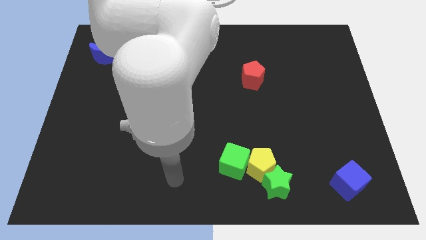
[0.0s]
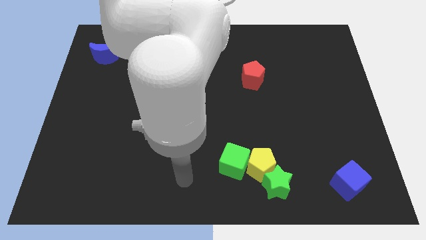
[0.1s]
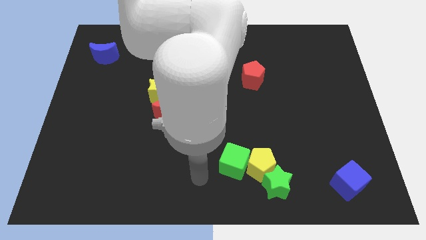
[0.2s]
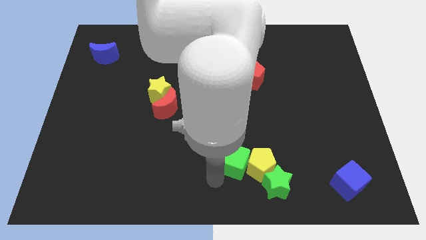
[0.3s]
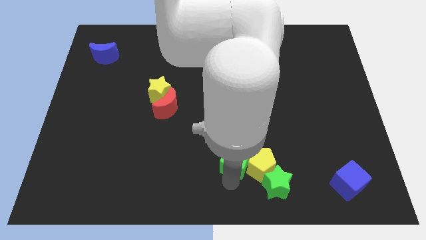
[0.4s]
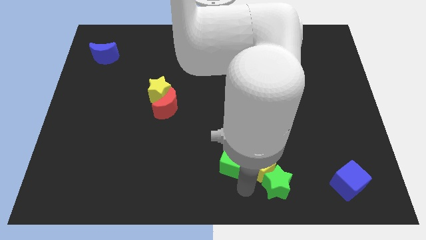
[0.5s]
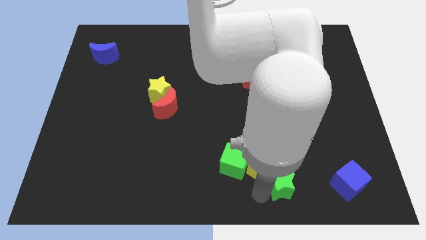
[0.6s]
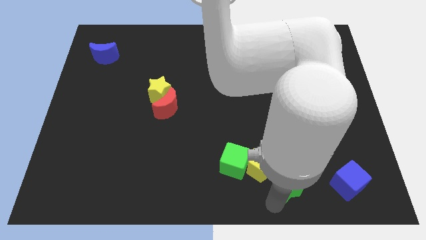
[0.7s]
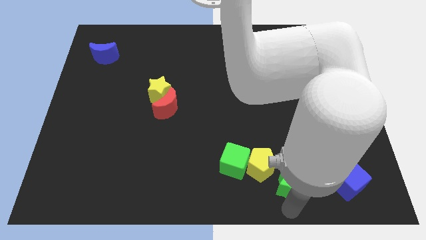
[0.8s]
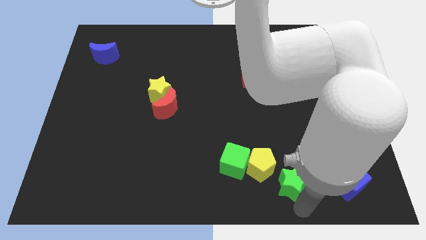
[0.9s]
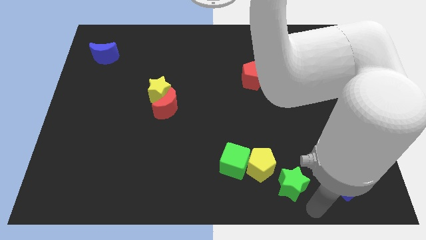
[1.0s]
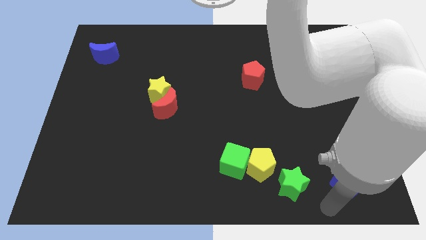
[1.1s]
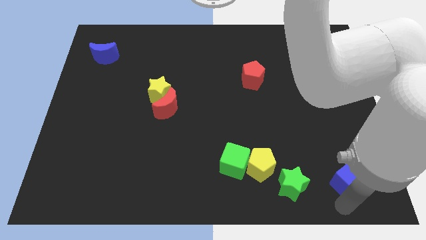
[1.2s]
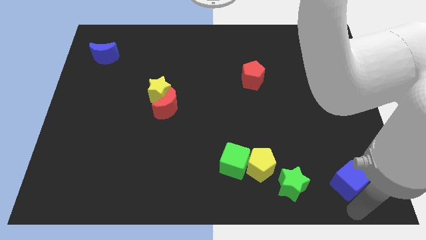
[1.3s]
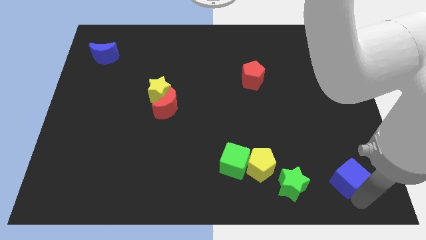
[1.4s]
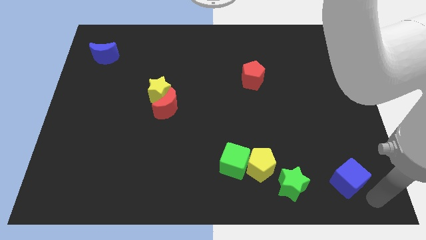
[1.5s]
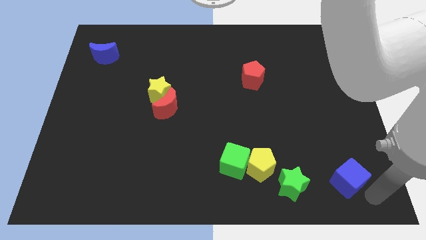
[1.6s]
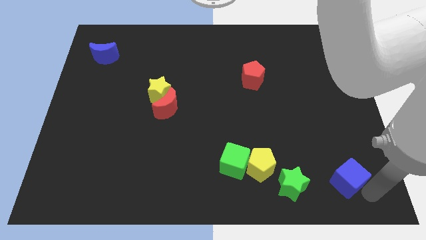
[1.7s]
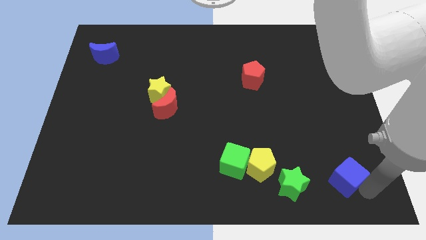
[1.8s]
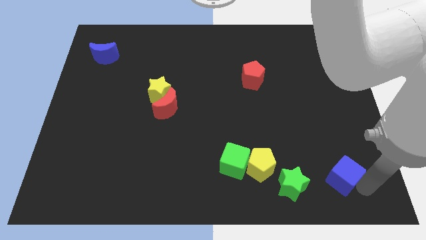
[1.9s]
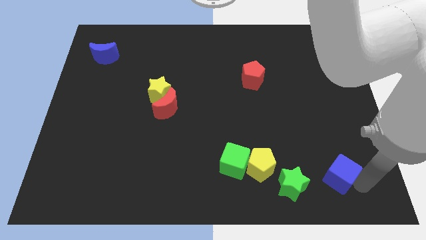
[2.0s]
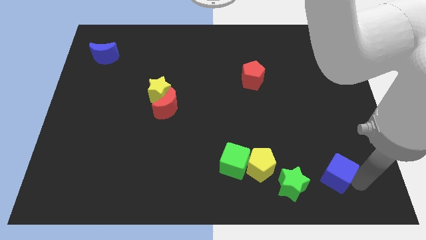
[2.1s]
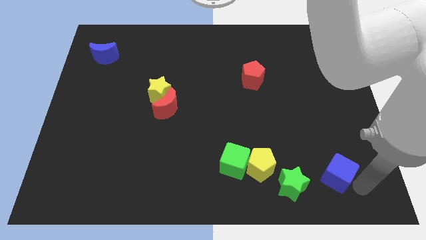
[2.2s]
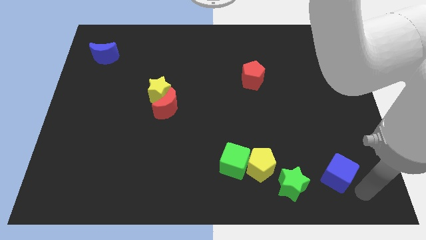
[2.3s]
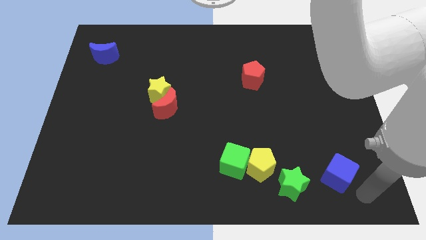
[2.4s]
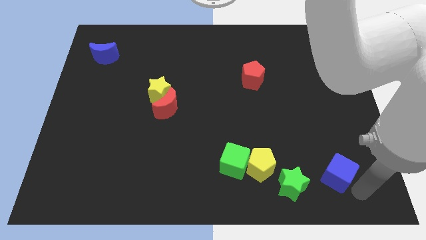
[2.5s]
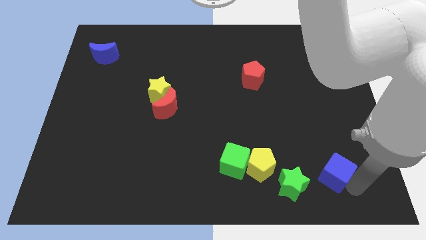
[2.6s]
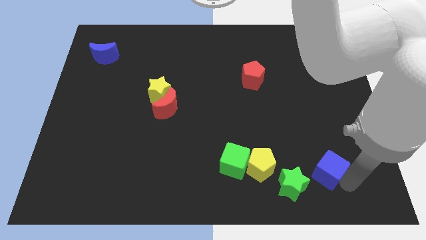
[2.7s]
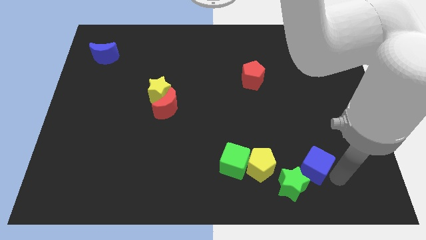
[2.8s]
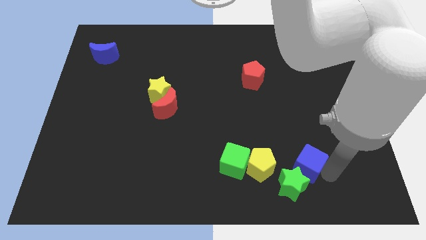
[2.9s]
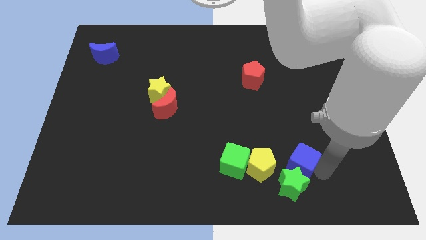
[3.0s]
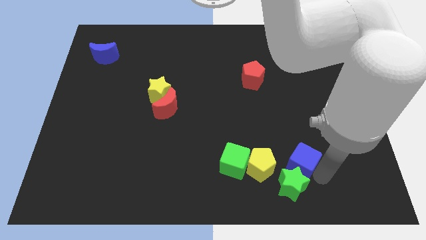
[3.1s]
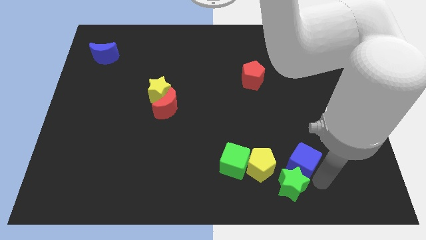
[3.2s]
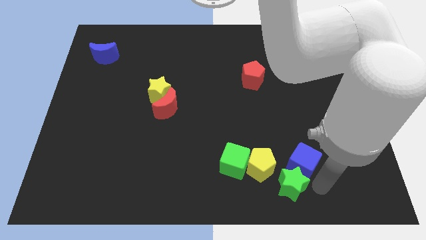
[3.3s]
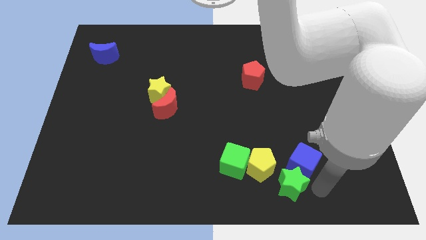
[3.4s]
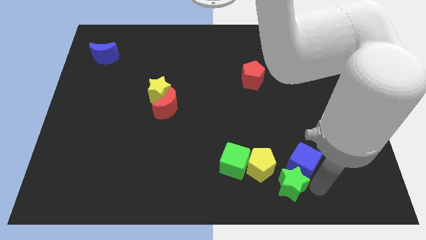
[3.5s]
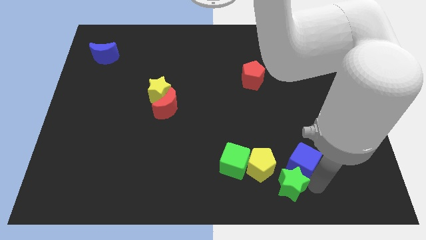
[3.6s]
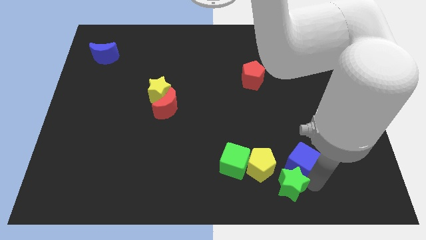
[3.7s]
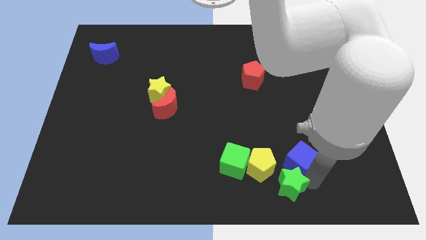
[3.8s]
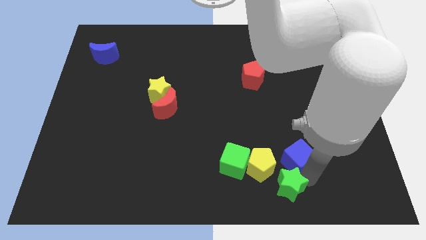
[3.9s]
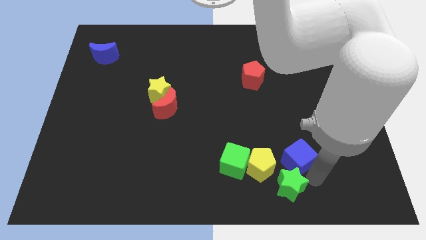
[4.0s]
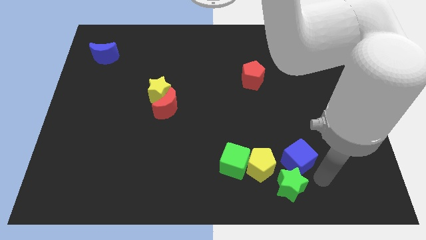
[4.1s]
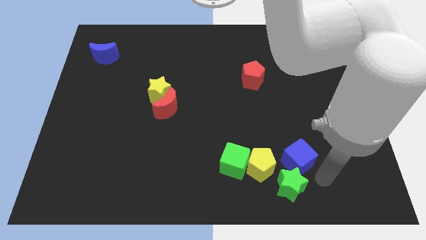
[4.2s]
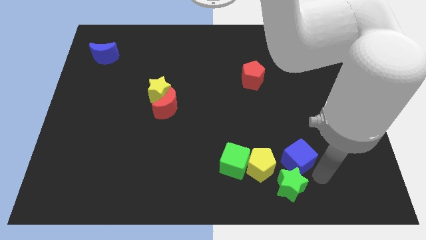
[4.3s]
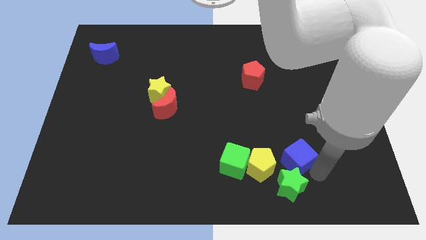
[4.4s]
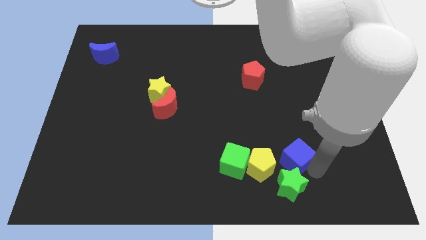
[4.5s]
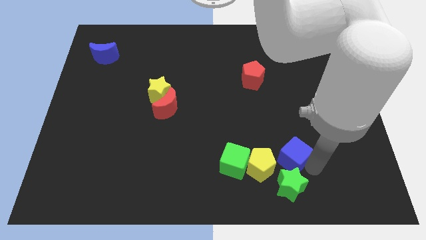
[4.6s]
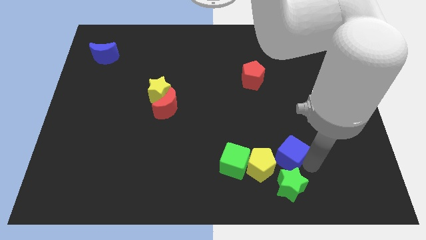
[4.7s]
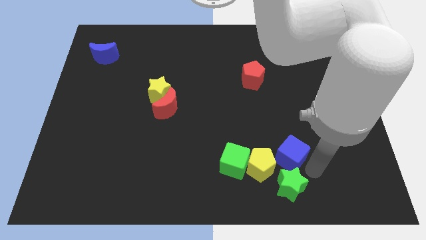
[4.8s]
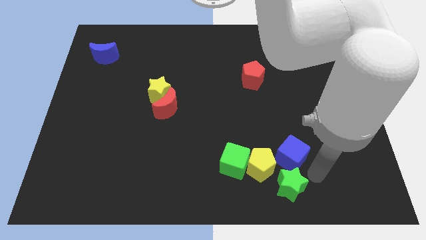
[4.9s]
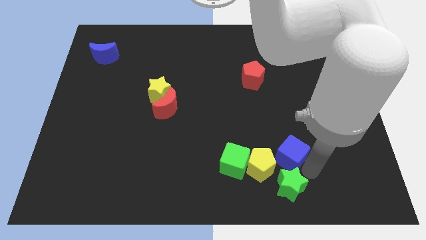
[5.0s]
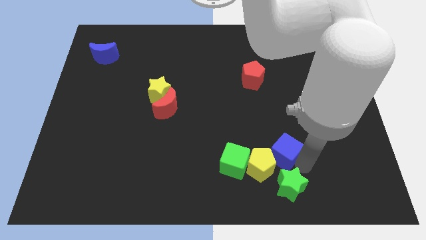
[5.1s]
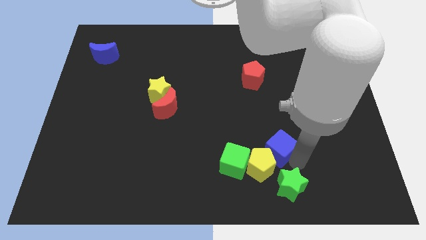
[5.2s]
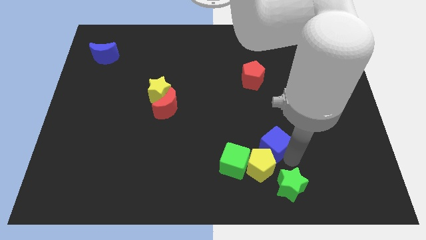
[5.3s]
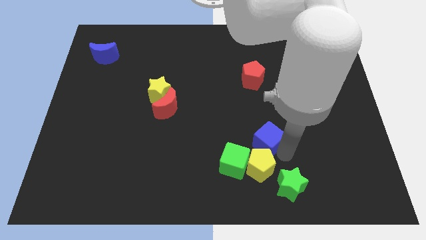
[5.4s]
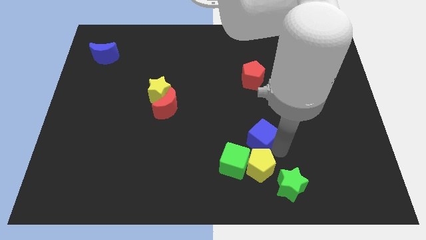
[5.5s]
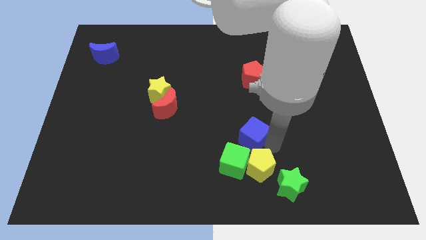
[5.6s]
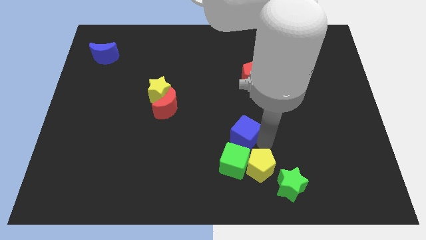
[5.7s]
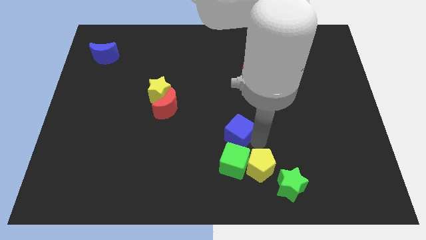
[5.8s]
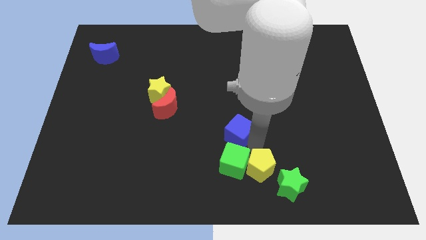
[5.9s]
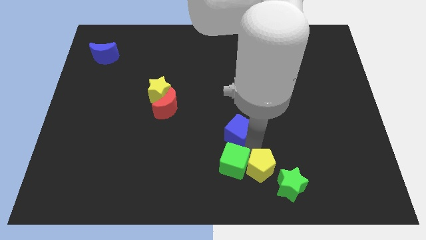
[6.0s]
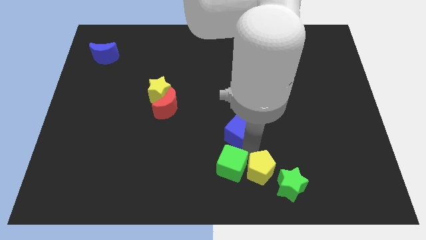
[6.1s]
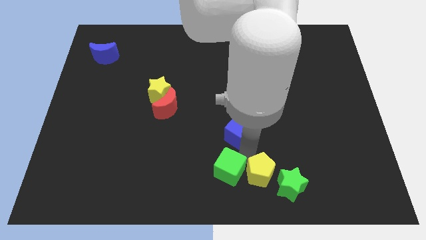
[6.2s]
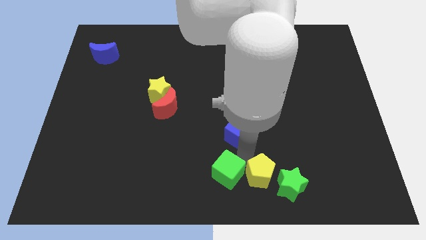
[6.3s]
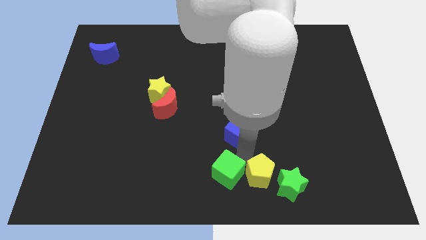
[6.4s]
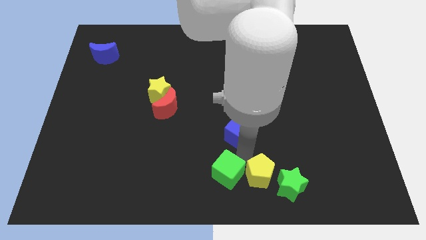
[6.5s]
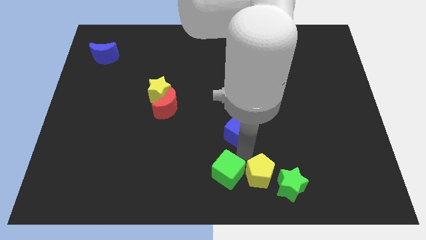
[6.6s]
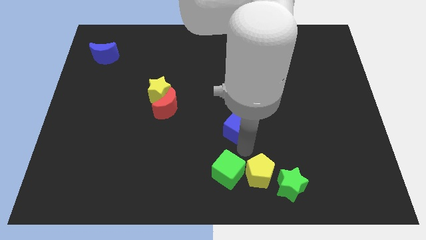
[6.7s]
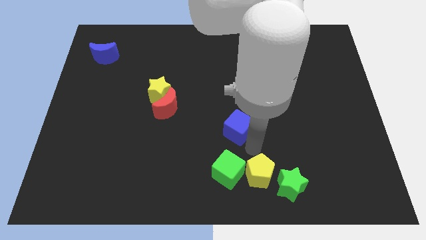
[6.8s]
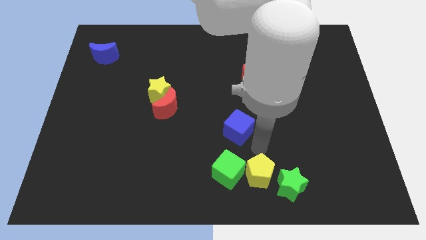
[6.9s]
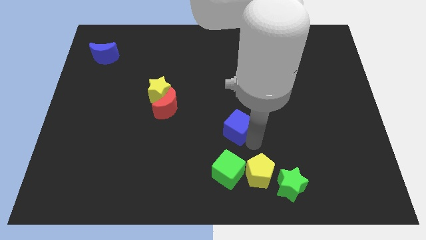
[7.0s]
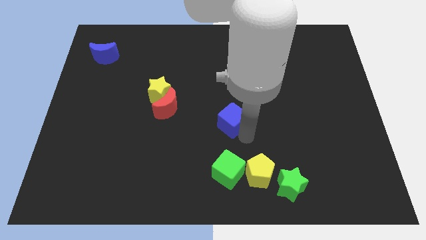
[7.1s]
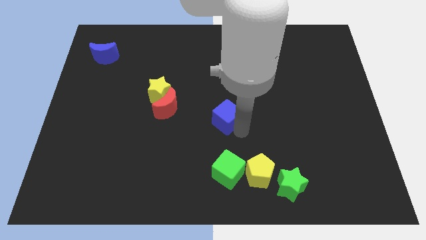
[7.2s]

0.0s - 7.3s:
slide the blue cube just right of the red moon
